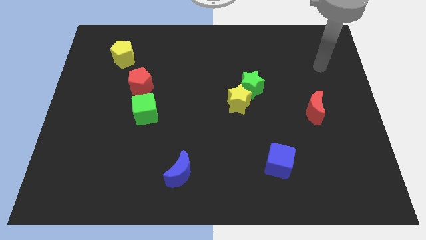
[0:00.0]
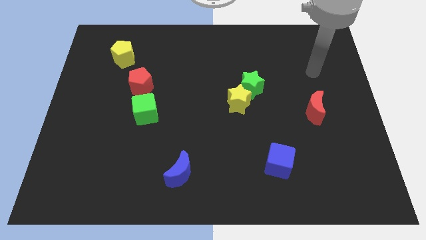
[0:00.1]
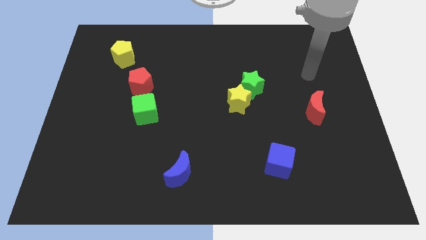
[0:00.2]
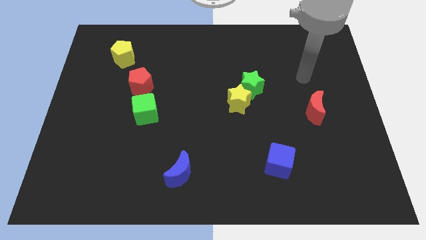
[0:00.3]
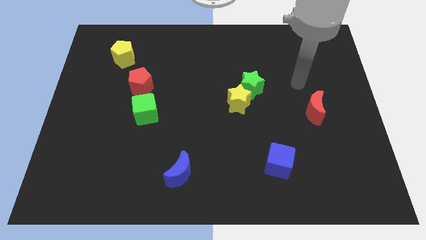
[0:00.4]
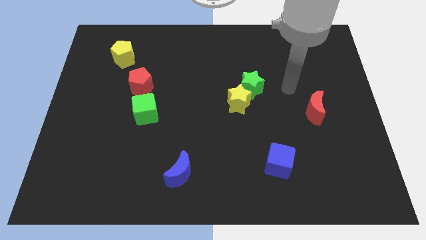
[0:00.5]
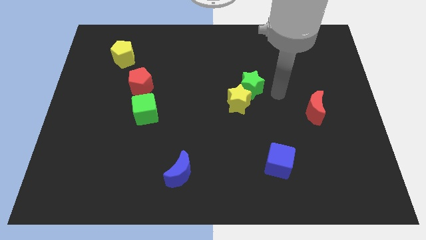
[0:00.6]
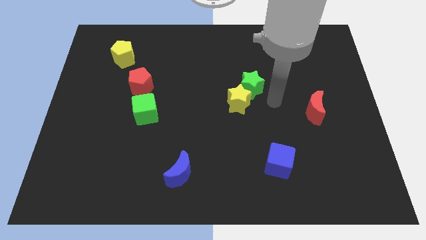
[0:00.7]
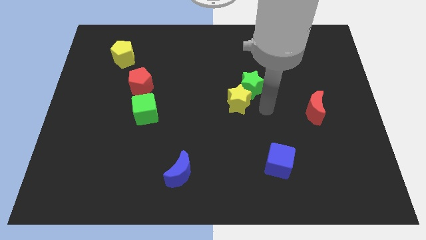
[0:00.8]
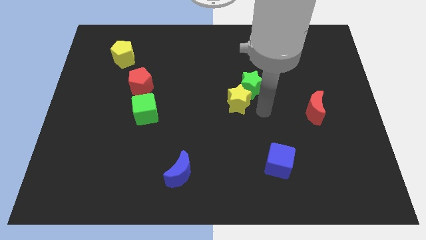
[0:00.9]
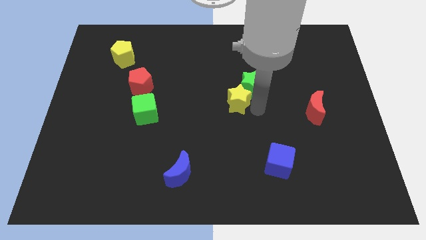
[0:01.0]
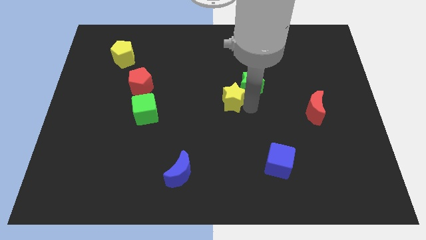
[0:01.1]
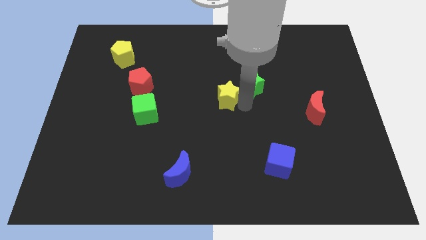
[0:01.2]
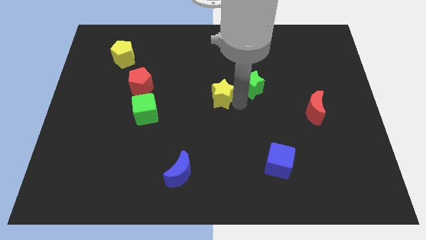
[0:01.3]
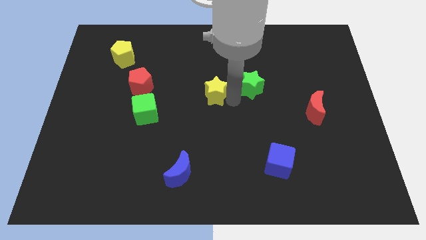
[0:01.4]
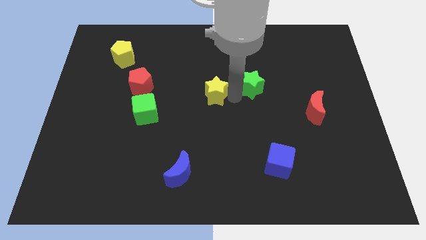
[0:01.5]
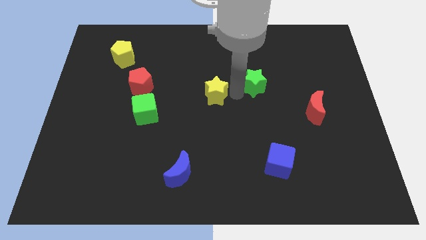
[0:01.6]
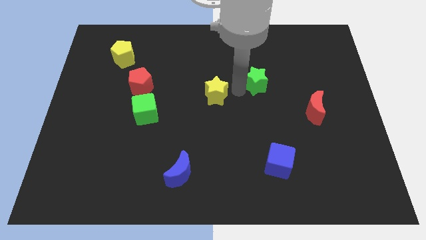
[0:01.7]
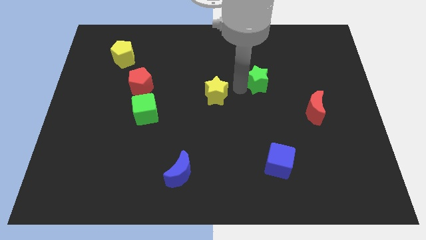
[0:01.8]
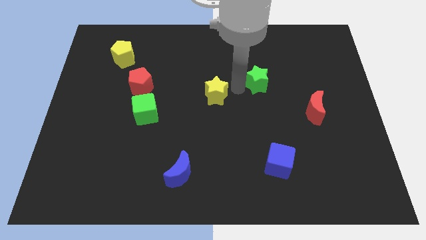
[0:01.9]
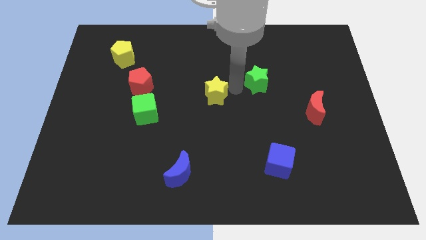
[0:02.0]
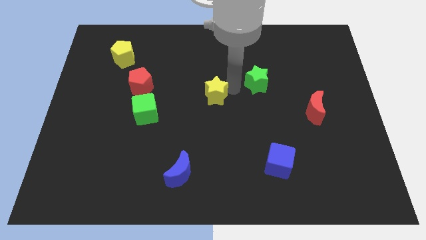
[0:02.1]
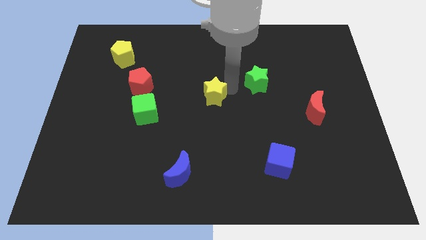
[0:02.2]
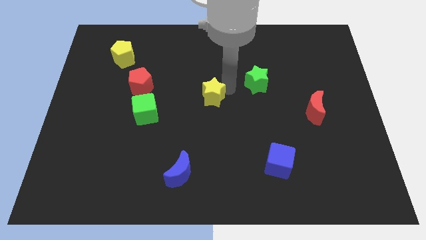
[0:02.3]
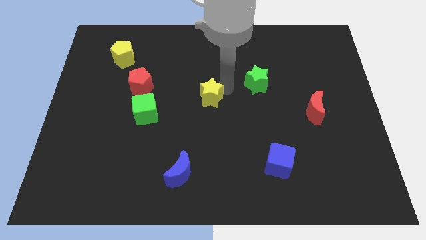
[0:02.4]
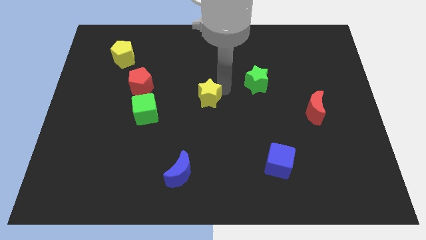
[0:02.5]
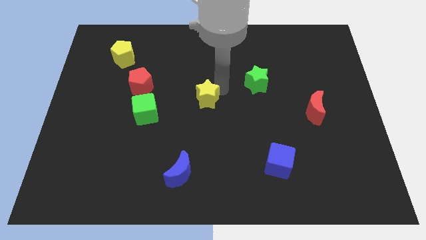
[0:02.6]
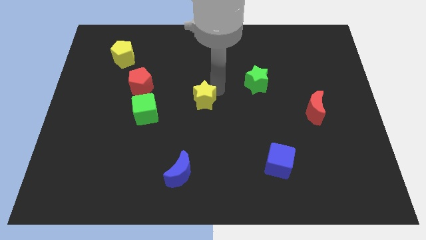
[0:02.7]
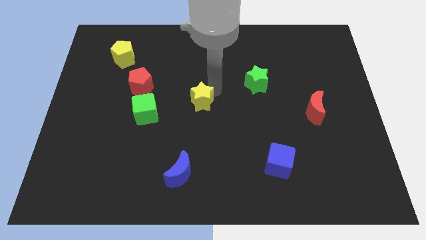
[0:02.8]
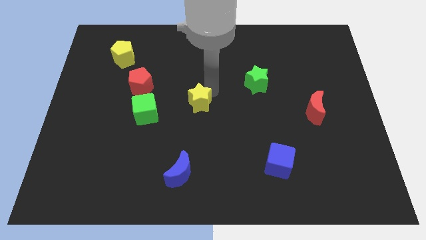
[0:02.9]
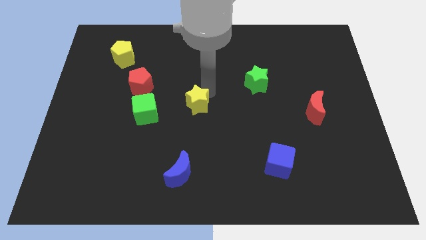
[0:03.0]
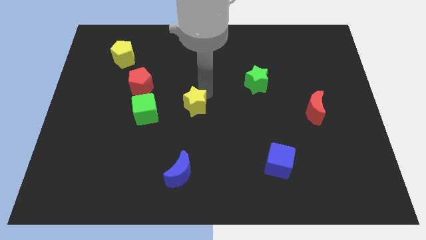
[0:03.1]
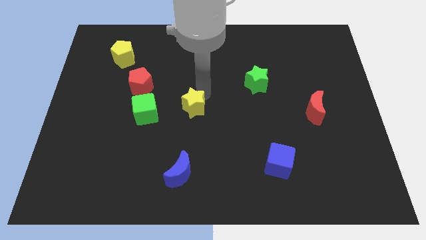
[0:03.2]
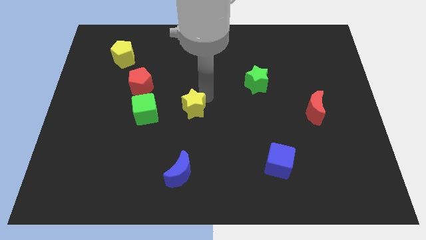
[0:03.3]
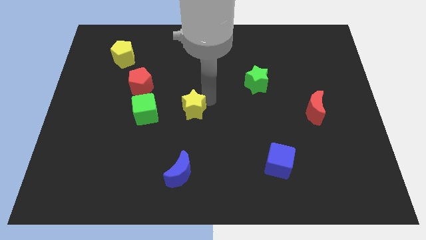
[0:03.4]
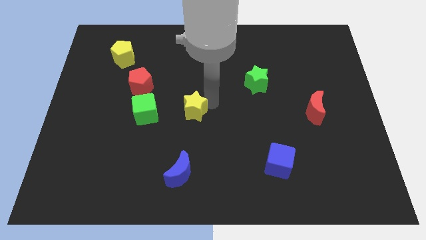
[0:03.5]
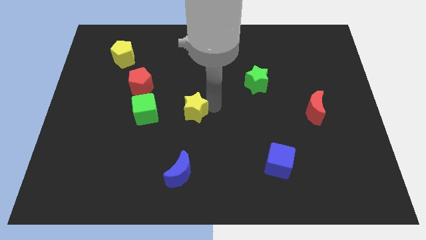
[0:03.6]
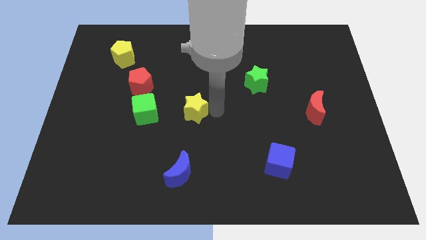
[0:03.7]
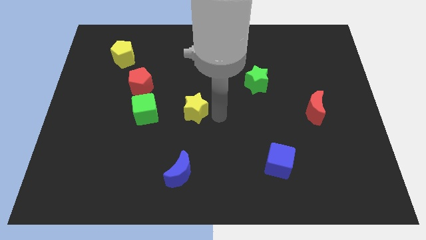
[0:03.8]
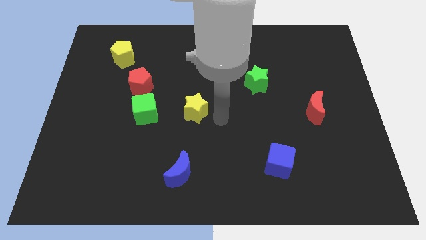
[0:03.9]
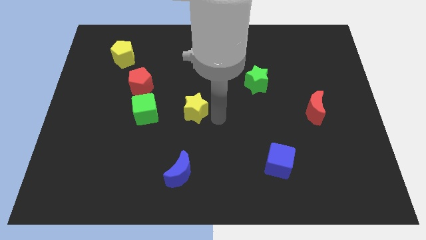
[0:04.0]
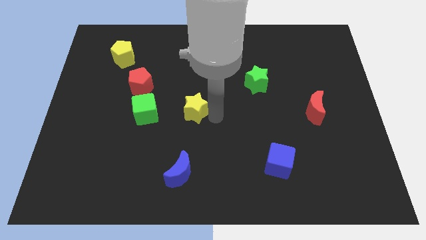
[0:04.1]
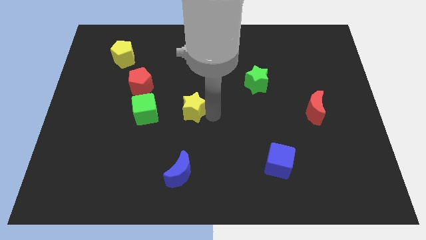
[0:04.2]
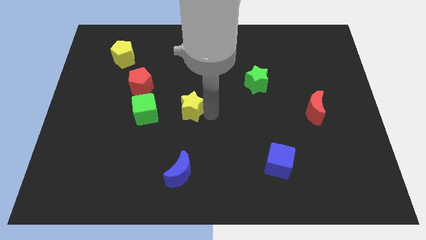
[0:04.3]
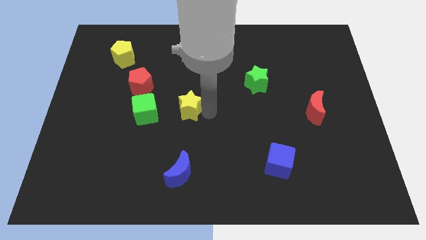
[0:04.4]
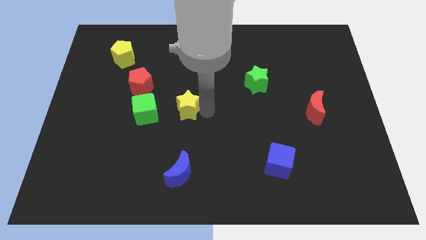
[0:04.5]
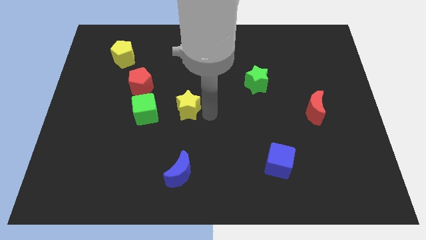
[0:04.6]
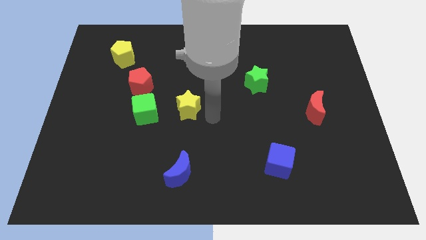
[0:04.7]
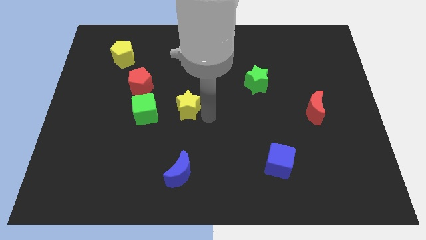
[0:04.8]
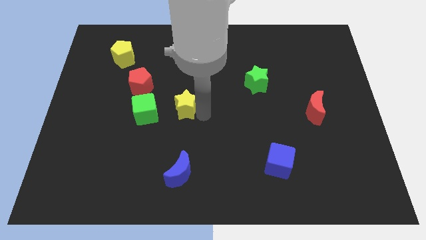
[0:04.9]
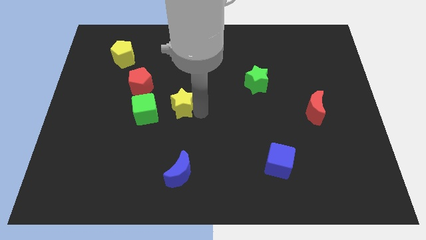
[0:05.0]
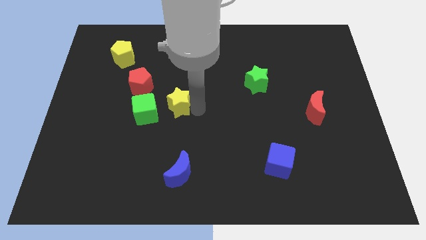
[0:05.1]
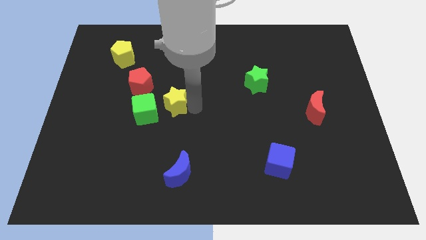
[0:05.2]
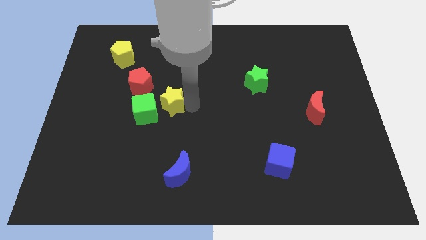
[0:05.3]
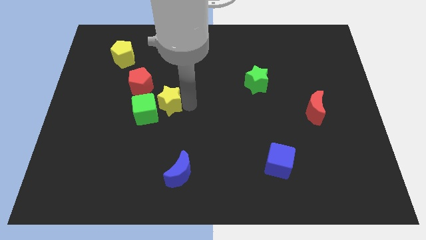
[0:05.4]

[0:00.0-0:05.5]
push the yellow star next to the green cube

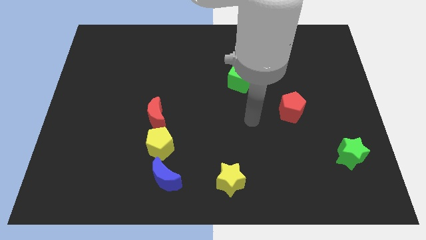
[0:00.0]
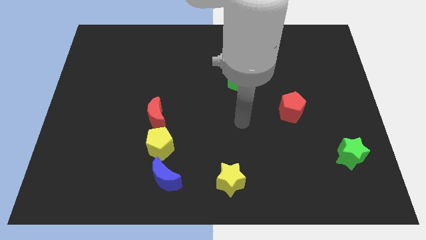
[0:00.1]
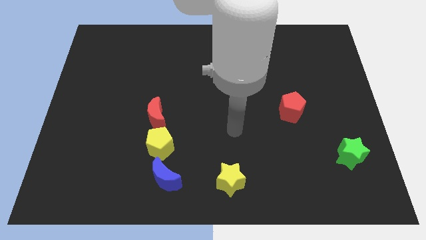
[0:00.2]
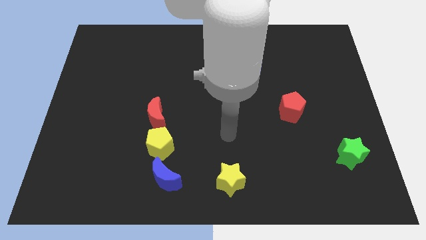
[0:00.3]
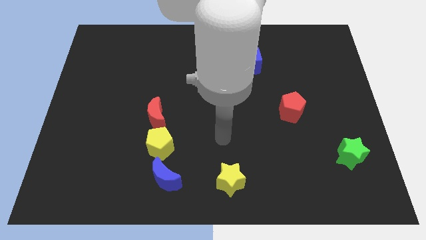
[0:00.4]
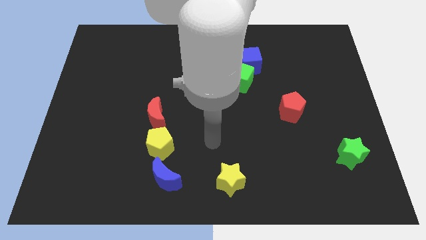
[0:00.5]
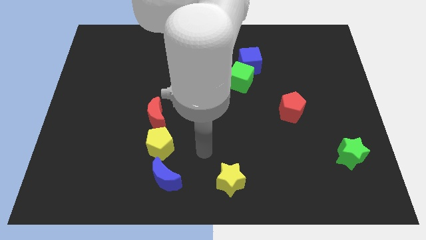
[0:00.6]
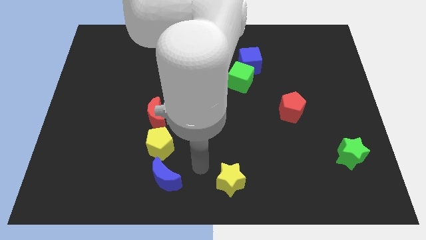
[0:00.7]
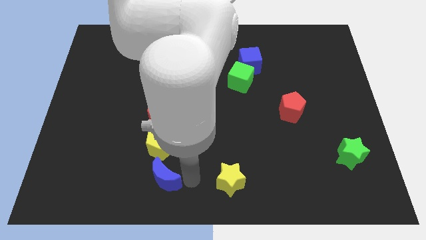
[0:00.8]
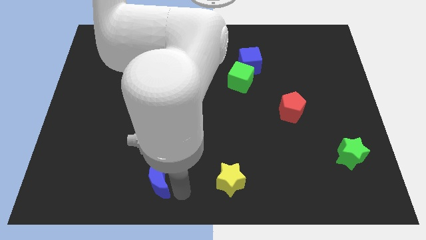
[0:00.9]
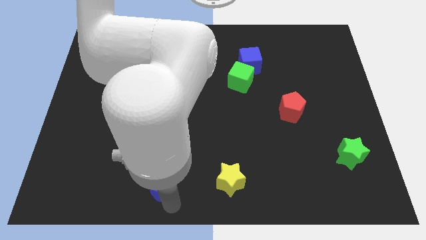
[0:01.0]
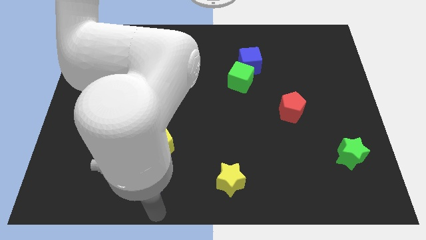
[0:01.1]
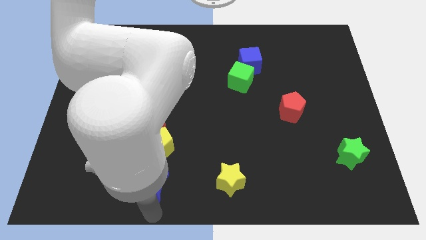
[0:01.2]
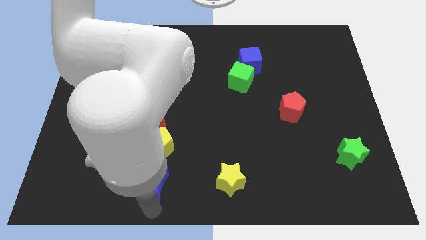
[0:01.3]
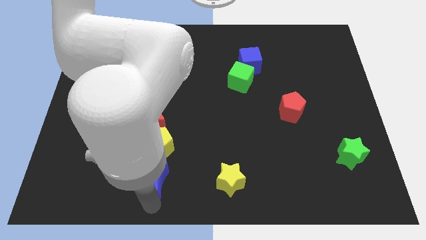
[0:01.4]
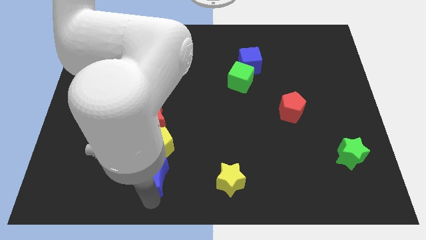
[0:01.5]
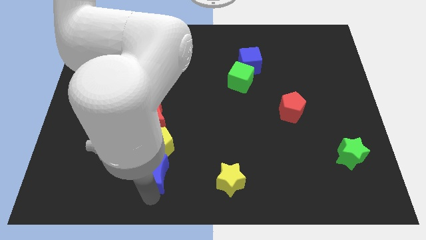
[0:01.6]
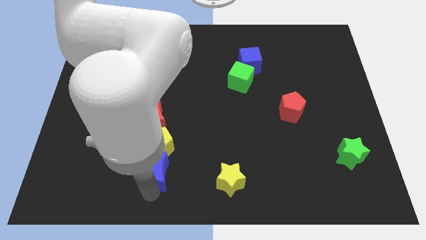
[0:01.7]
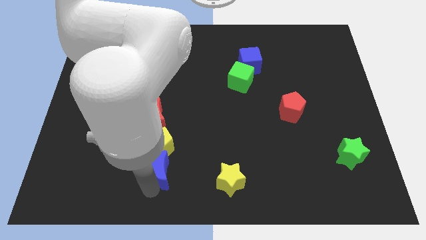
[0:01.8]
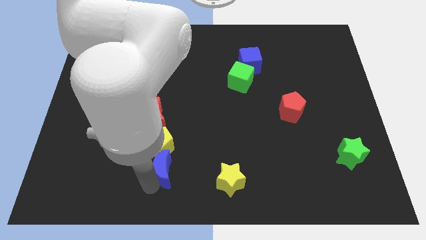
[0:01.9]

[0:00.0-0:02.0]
move the blue moon to the yellow pentagon
